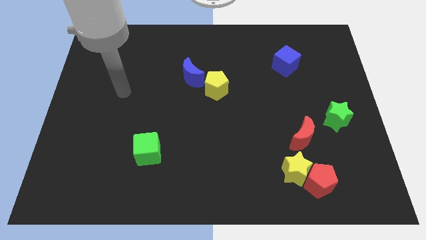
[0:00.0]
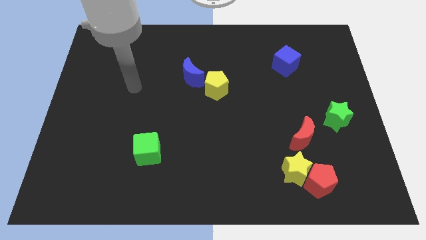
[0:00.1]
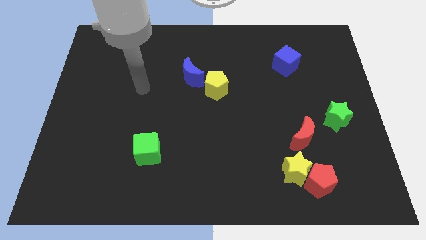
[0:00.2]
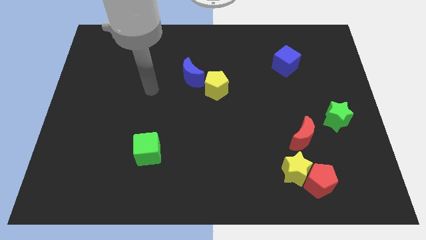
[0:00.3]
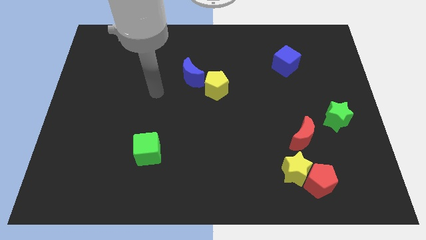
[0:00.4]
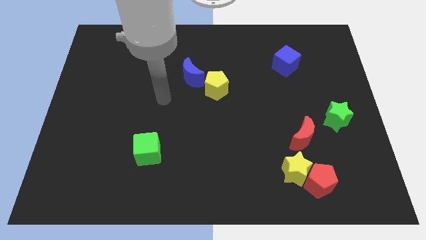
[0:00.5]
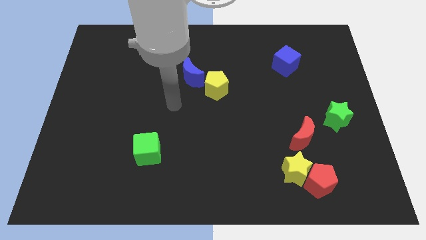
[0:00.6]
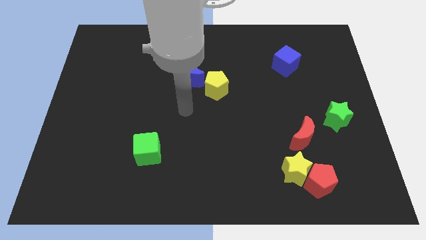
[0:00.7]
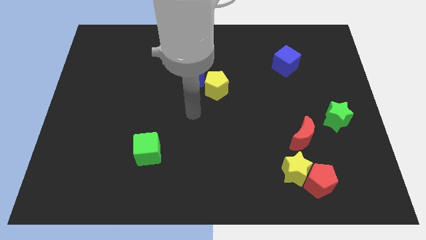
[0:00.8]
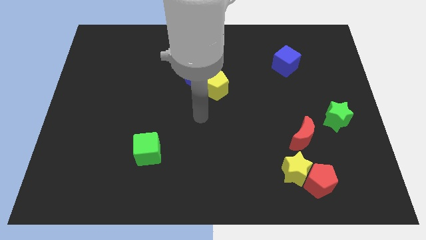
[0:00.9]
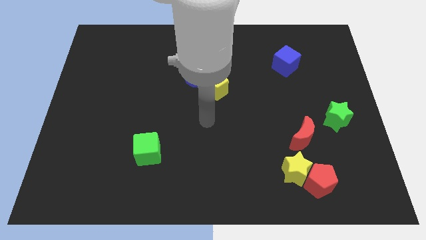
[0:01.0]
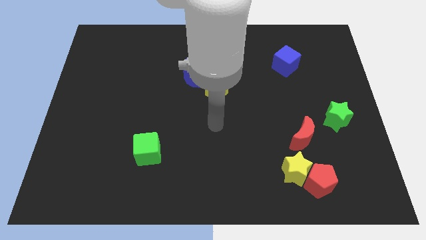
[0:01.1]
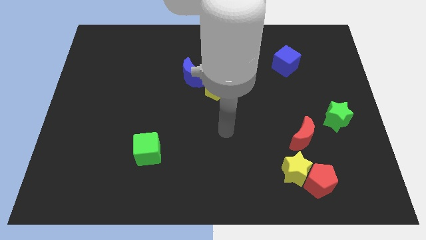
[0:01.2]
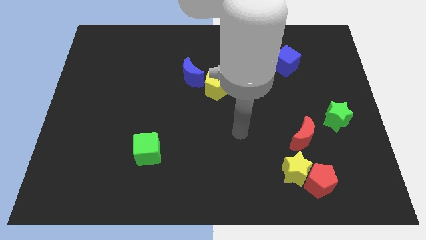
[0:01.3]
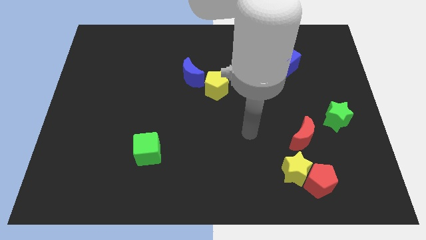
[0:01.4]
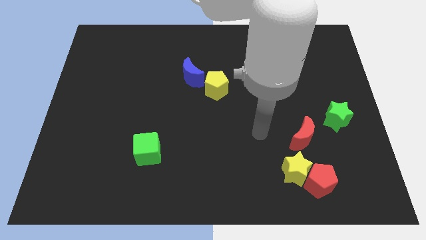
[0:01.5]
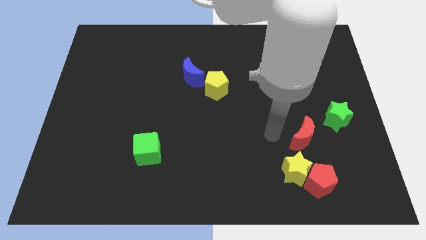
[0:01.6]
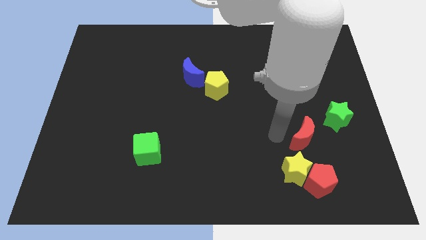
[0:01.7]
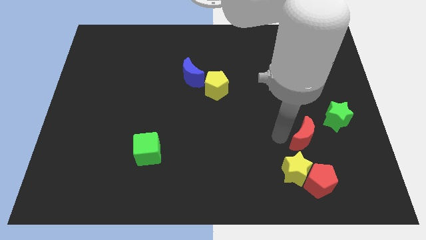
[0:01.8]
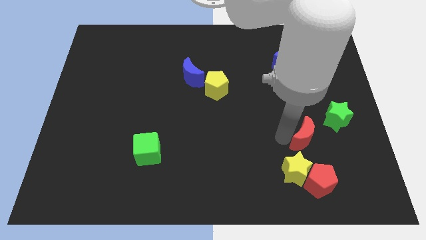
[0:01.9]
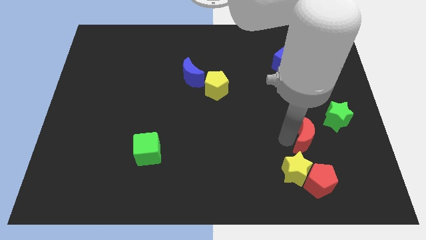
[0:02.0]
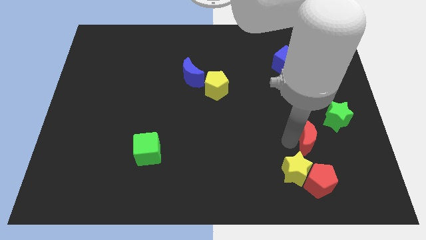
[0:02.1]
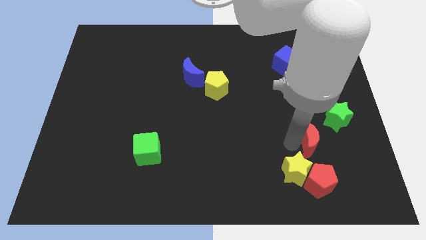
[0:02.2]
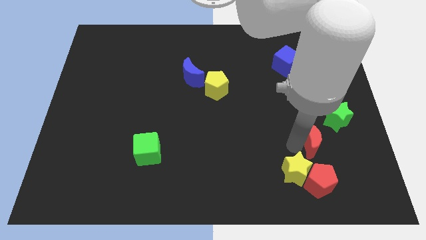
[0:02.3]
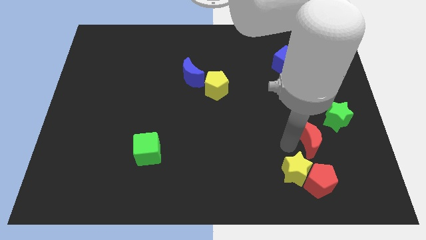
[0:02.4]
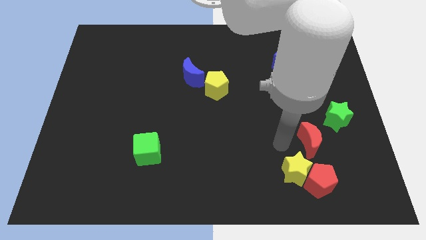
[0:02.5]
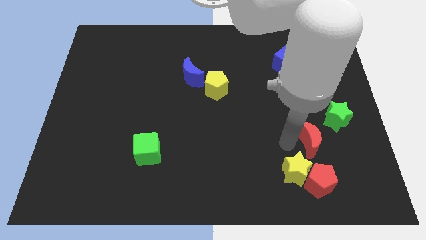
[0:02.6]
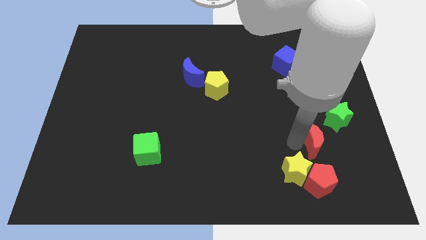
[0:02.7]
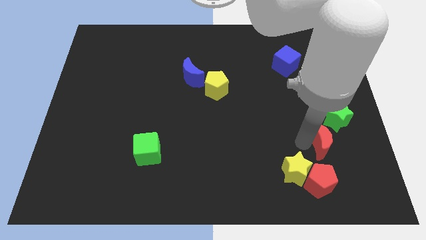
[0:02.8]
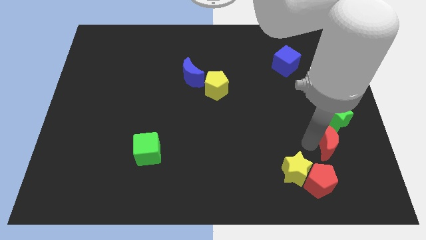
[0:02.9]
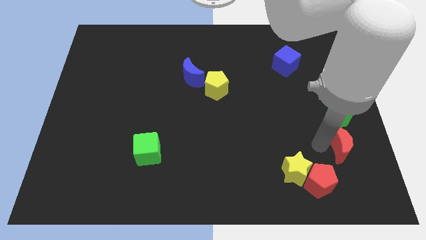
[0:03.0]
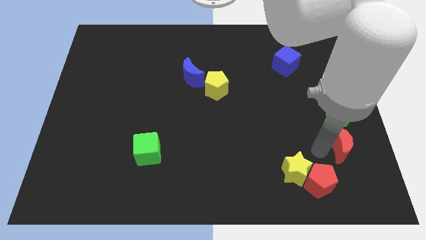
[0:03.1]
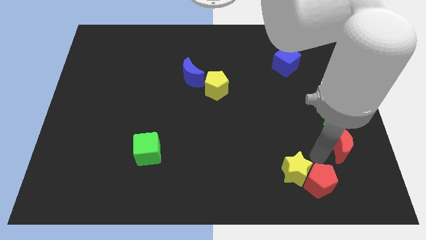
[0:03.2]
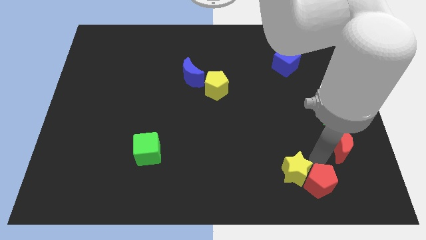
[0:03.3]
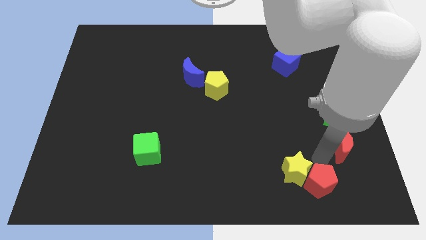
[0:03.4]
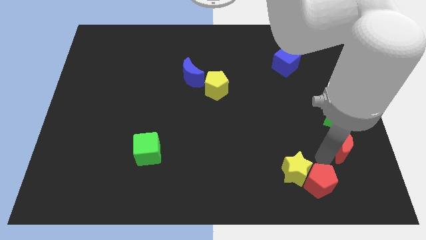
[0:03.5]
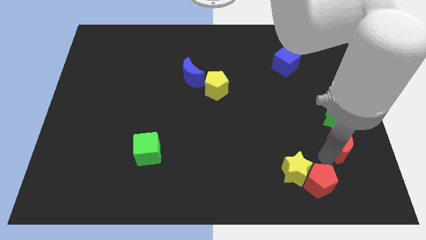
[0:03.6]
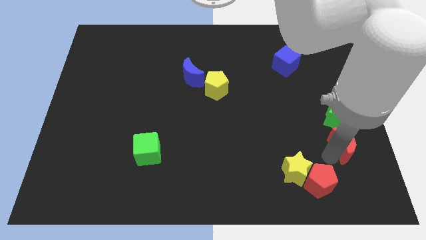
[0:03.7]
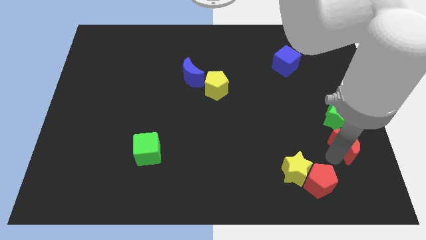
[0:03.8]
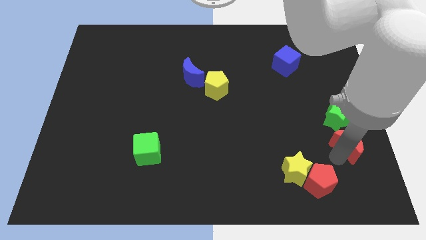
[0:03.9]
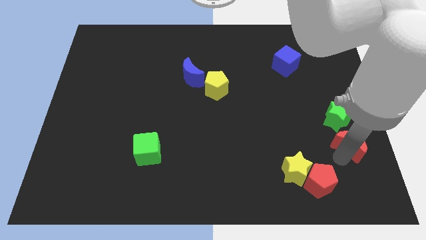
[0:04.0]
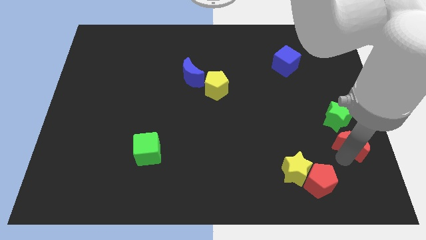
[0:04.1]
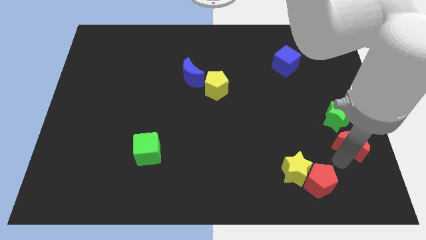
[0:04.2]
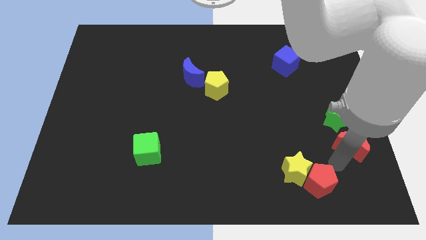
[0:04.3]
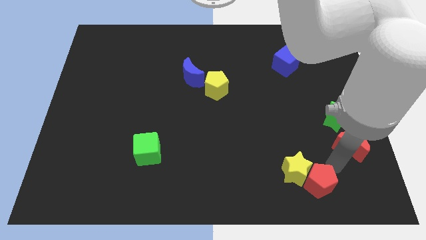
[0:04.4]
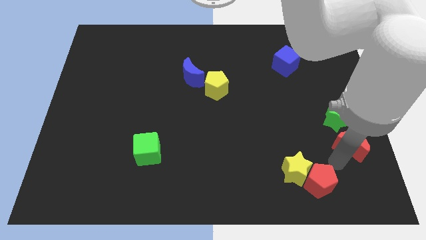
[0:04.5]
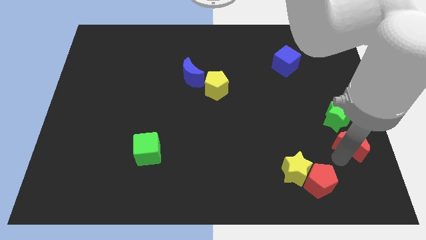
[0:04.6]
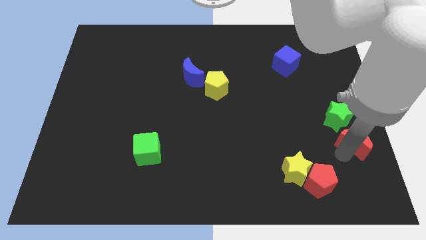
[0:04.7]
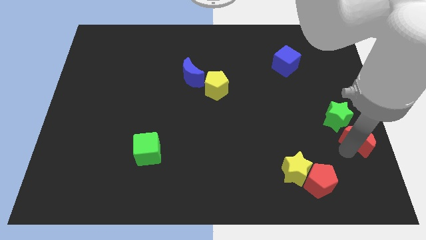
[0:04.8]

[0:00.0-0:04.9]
move the red moon to the right side

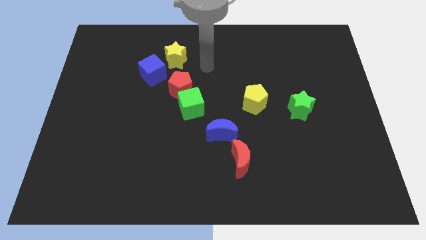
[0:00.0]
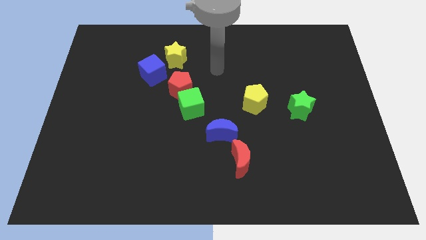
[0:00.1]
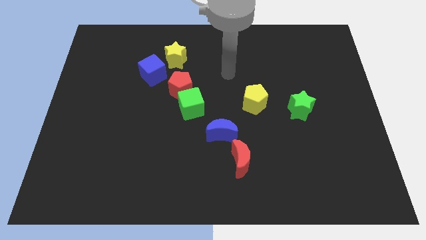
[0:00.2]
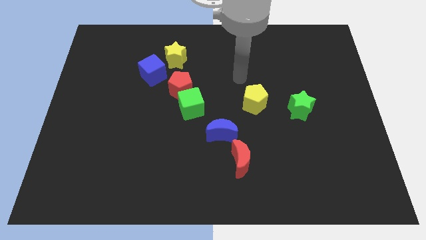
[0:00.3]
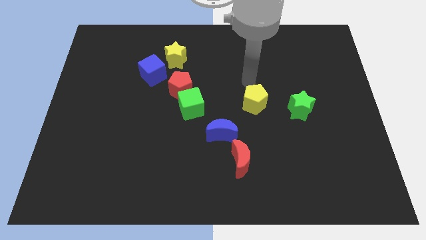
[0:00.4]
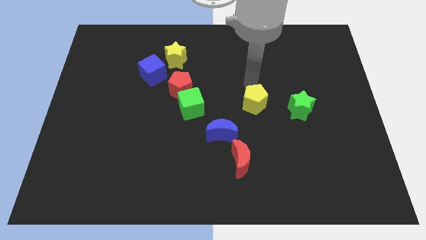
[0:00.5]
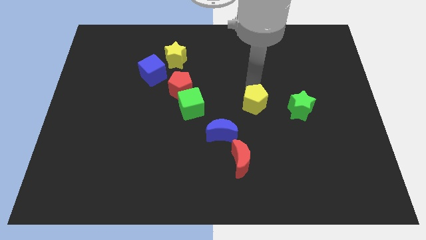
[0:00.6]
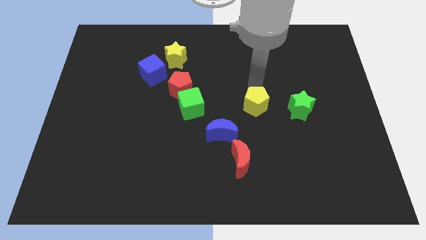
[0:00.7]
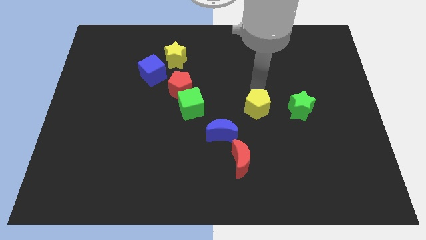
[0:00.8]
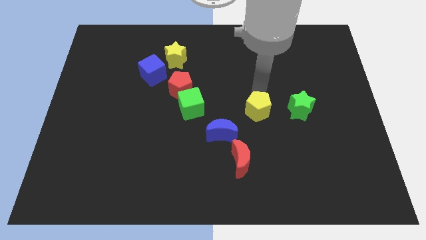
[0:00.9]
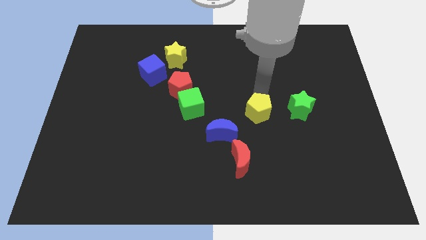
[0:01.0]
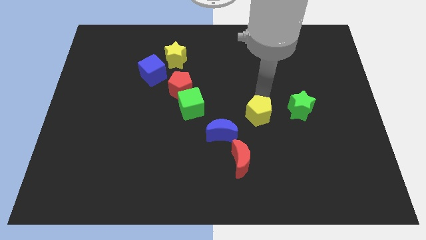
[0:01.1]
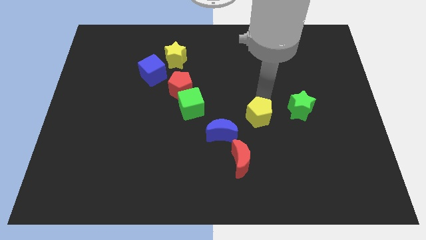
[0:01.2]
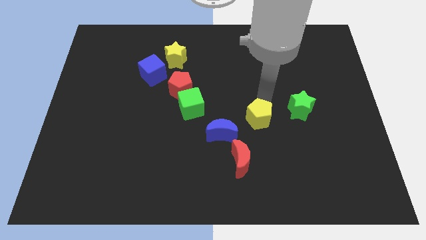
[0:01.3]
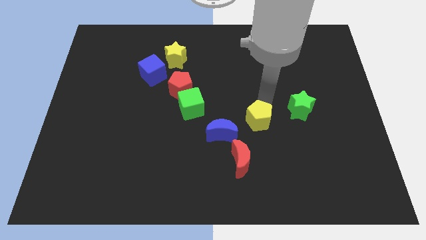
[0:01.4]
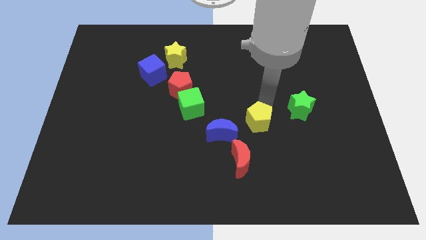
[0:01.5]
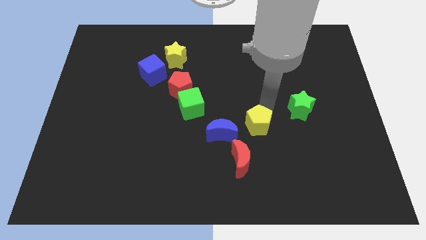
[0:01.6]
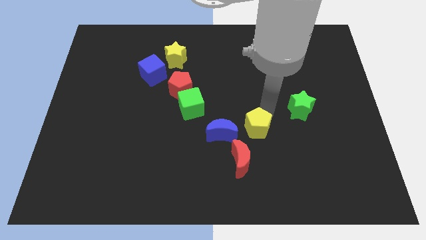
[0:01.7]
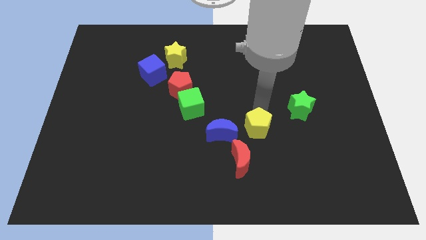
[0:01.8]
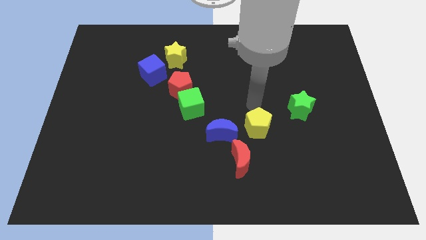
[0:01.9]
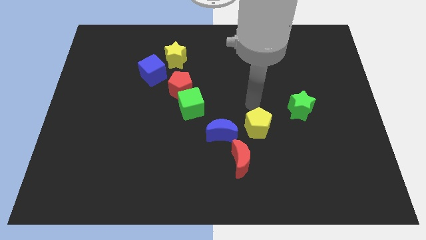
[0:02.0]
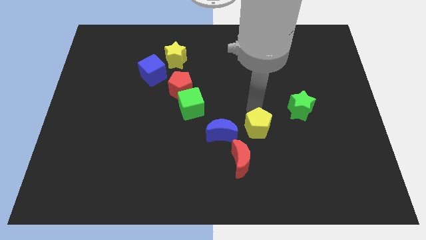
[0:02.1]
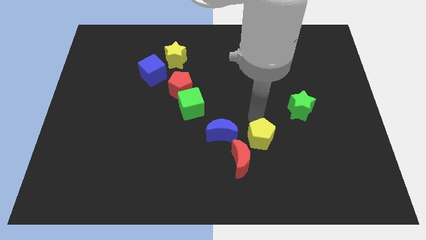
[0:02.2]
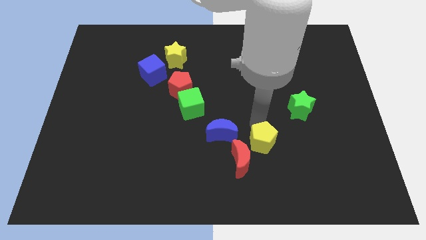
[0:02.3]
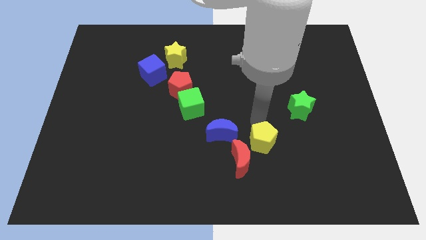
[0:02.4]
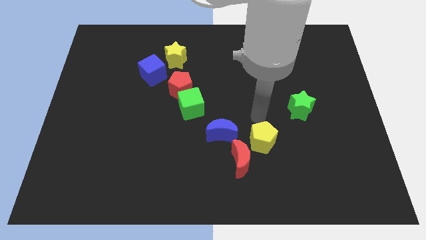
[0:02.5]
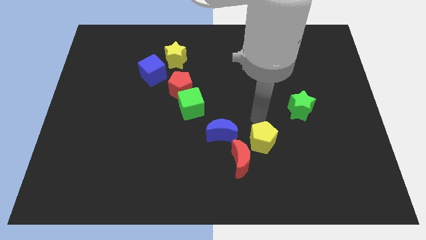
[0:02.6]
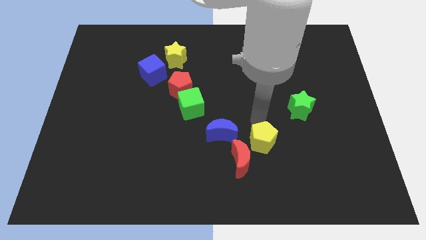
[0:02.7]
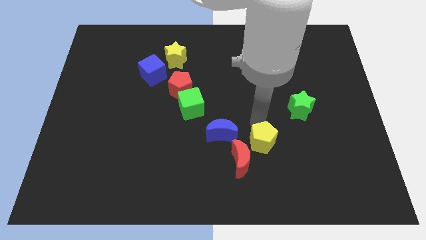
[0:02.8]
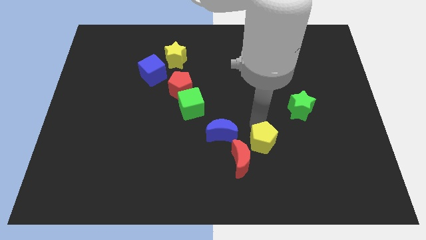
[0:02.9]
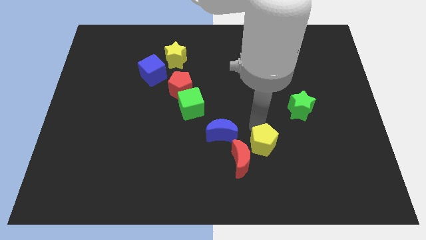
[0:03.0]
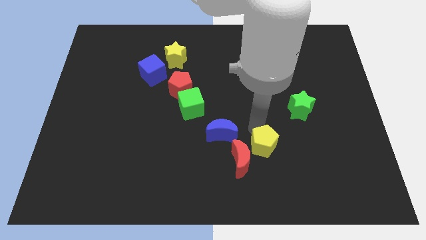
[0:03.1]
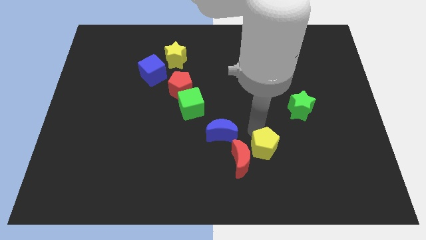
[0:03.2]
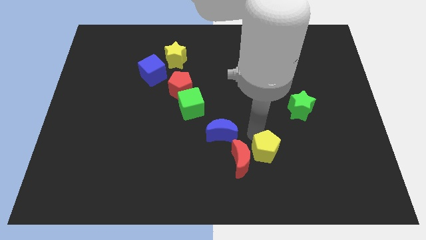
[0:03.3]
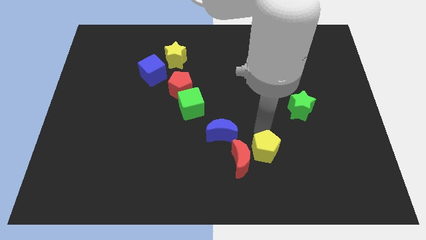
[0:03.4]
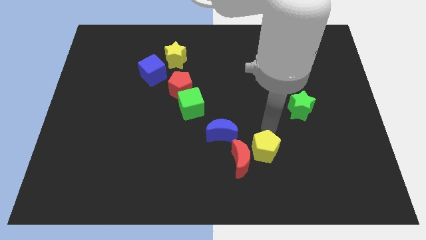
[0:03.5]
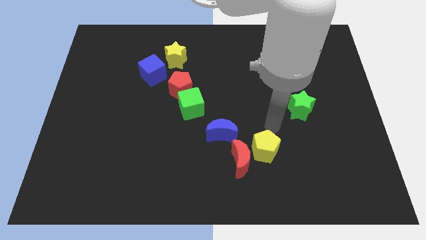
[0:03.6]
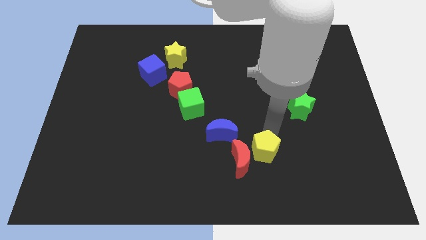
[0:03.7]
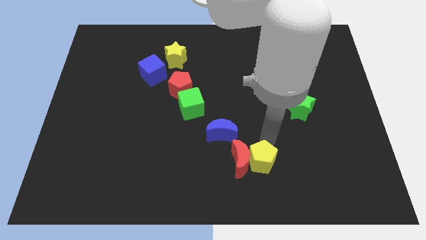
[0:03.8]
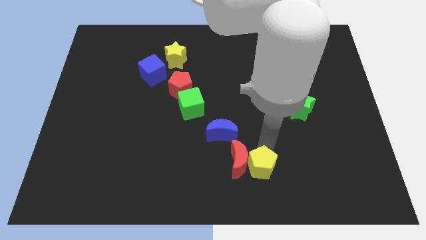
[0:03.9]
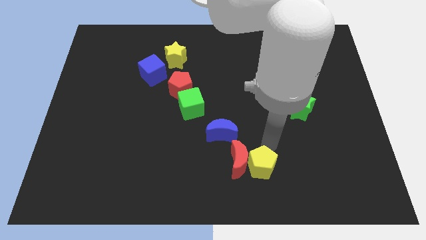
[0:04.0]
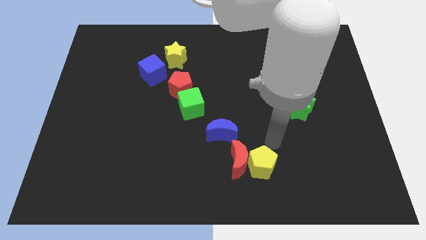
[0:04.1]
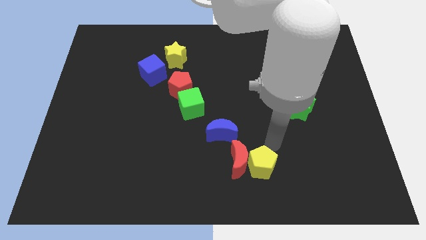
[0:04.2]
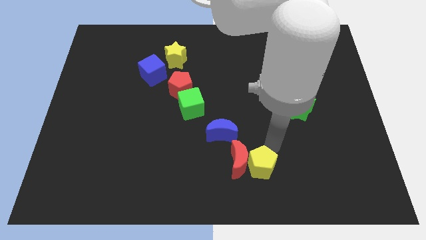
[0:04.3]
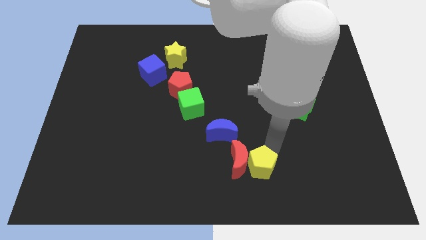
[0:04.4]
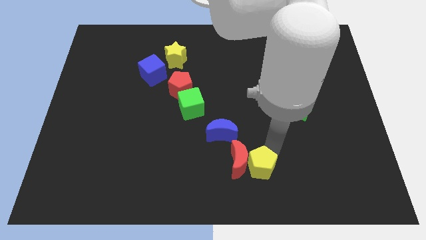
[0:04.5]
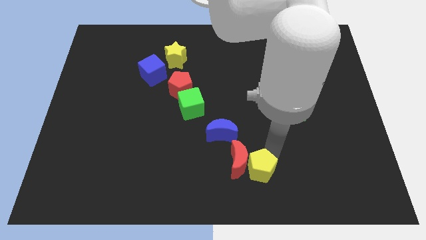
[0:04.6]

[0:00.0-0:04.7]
slide the yellow pentagon to the bottom
